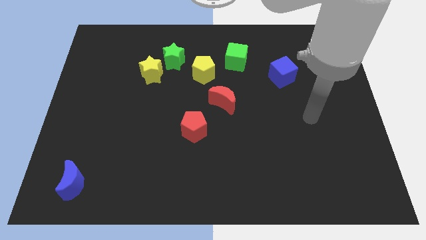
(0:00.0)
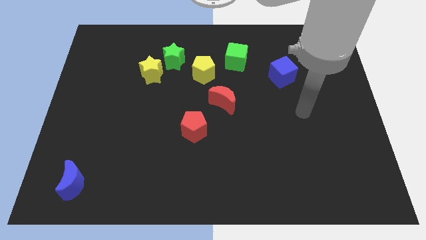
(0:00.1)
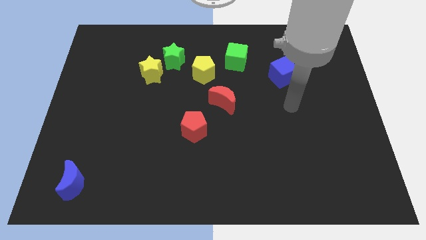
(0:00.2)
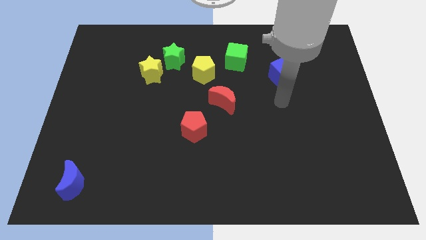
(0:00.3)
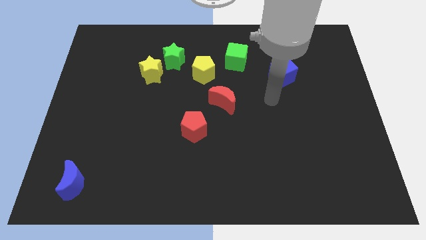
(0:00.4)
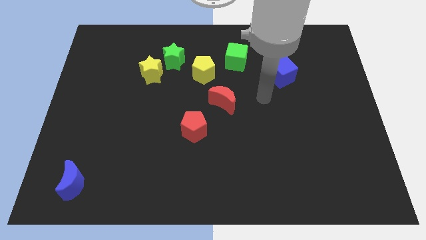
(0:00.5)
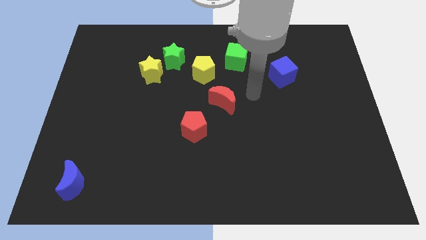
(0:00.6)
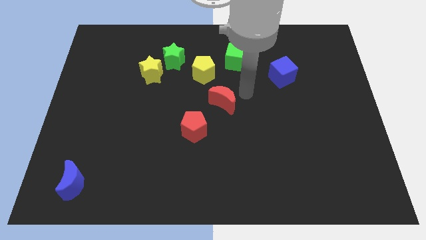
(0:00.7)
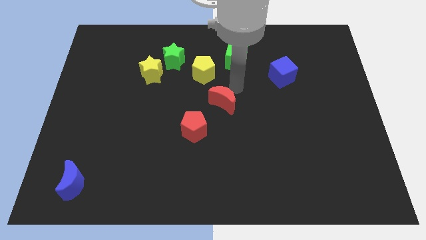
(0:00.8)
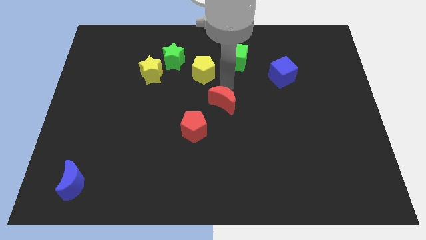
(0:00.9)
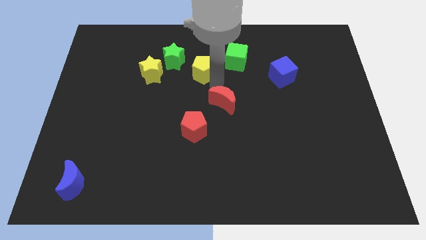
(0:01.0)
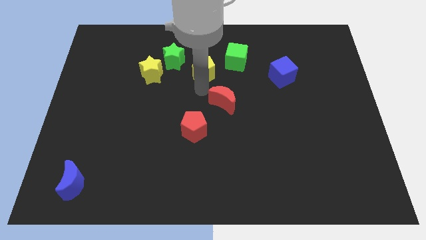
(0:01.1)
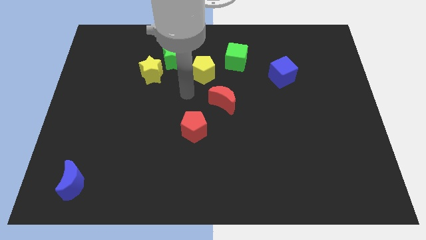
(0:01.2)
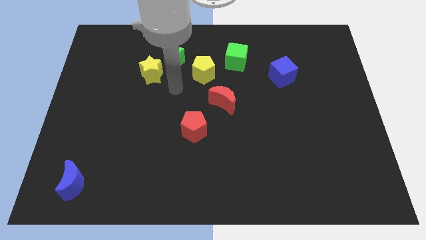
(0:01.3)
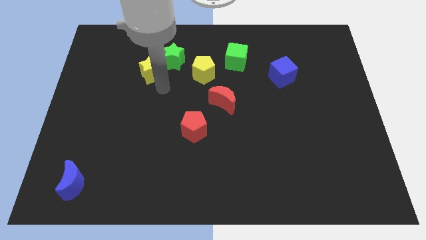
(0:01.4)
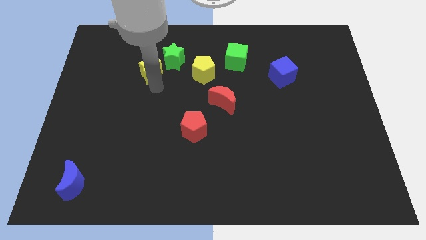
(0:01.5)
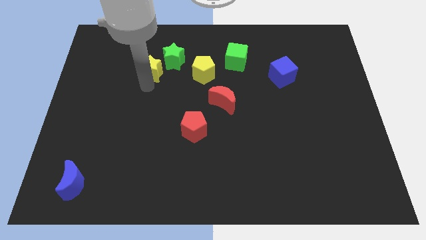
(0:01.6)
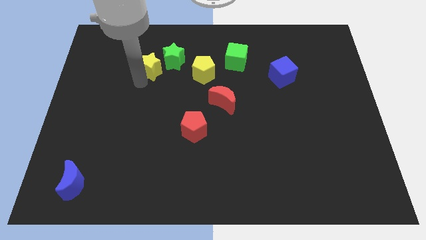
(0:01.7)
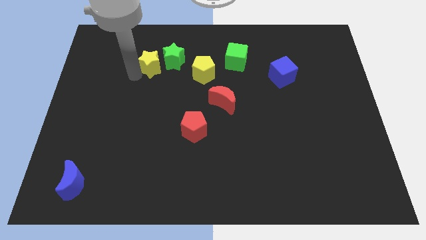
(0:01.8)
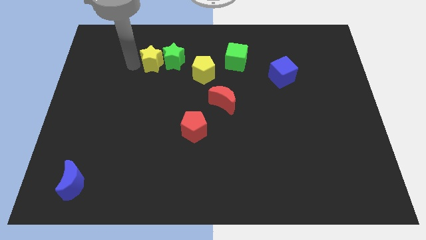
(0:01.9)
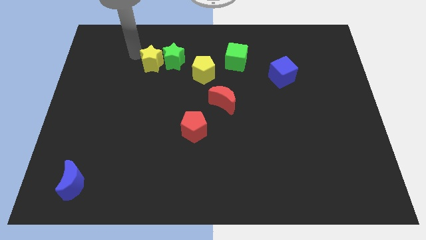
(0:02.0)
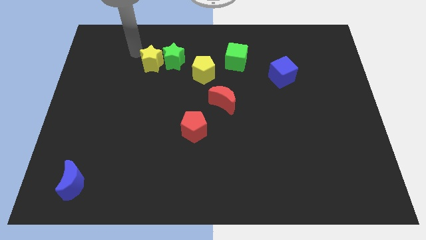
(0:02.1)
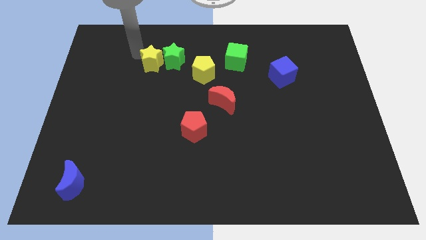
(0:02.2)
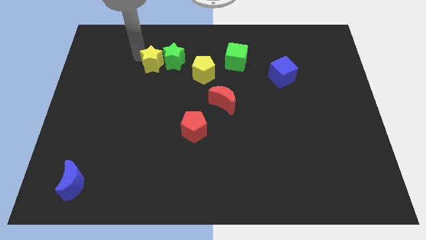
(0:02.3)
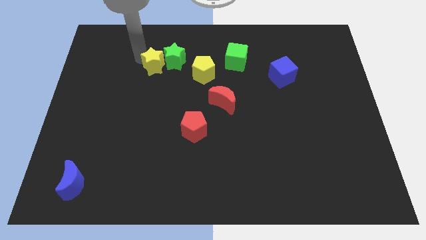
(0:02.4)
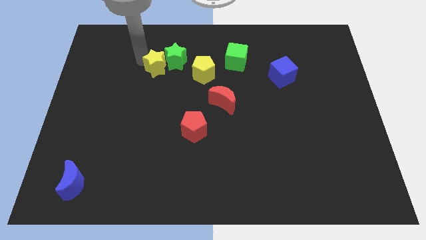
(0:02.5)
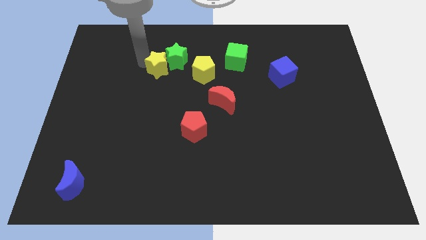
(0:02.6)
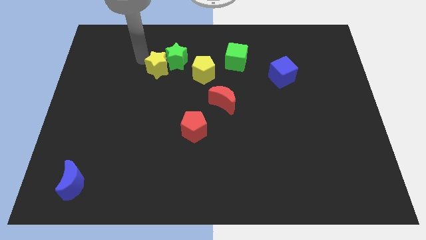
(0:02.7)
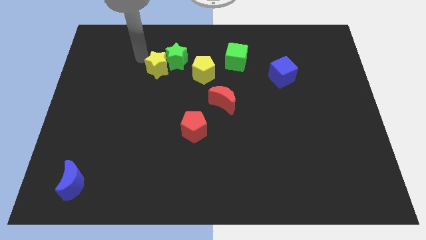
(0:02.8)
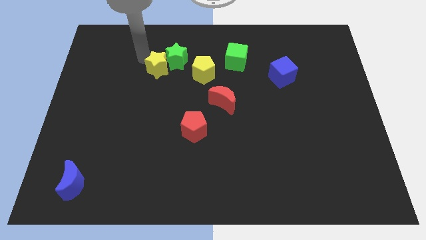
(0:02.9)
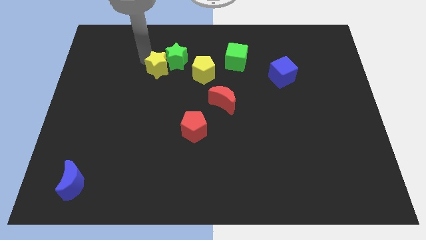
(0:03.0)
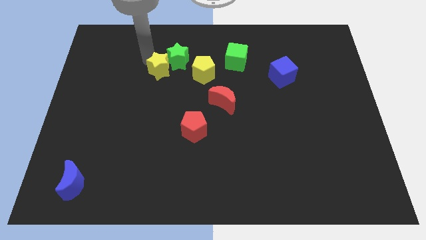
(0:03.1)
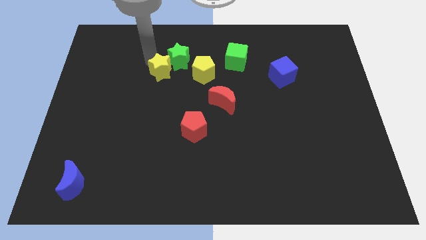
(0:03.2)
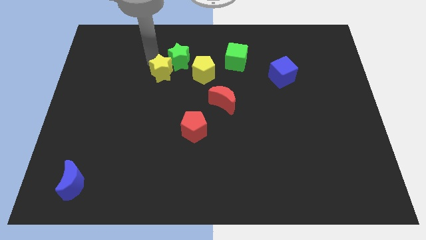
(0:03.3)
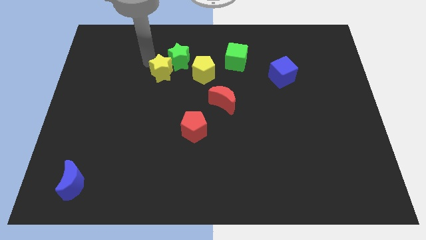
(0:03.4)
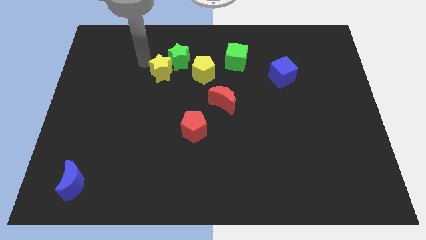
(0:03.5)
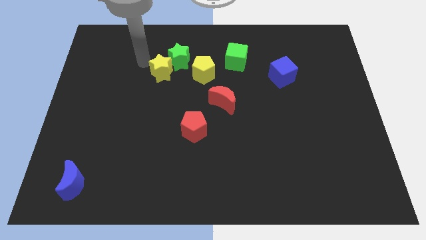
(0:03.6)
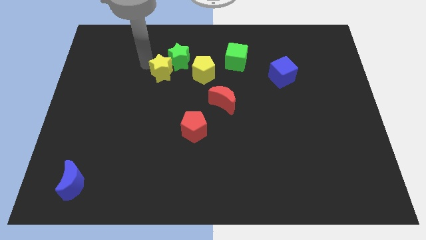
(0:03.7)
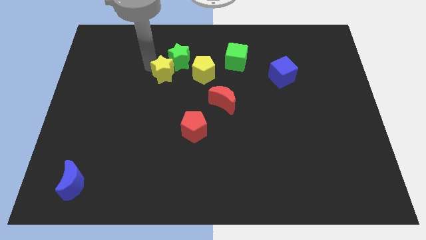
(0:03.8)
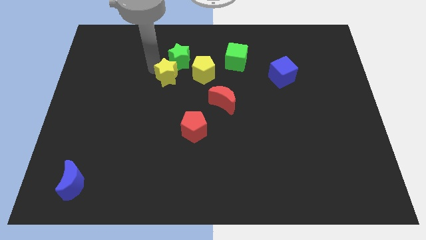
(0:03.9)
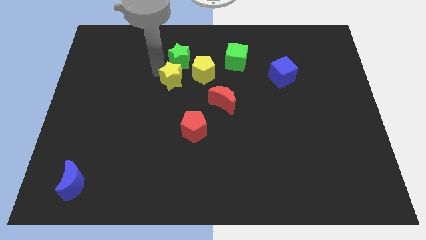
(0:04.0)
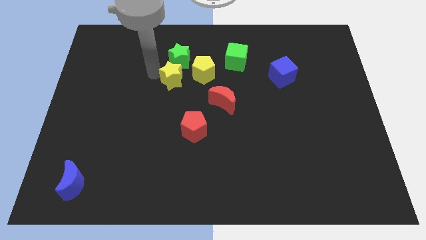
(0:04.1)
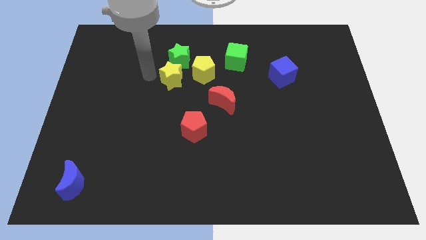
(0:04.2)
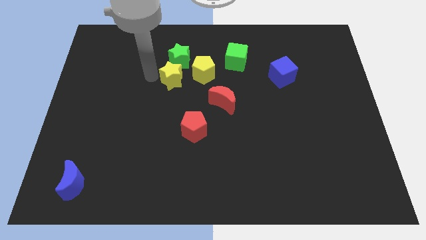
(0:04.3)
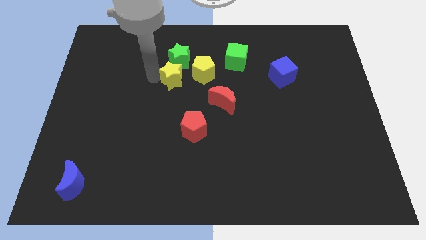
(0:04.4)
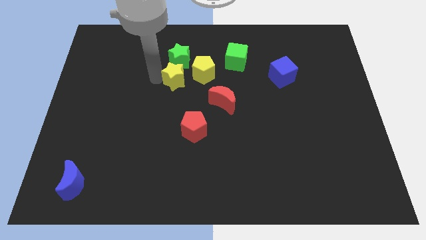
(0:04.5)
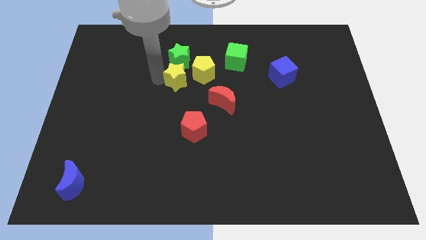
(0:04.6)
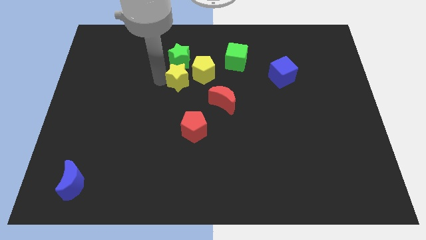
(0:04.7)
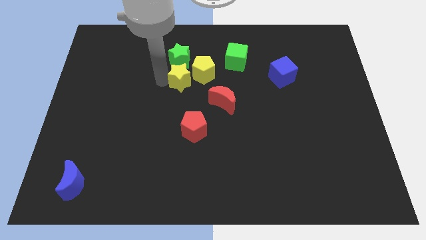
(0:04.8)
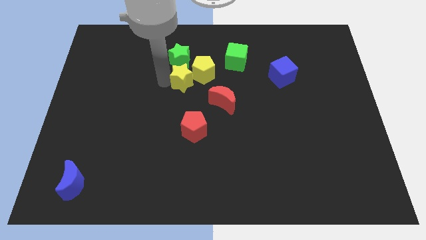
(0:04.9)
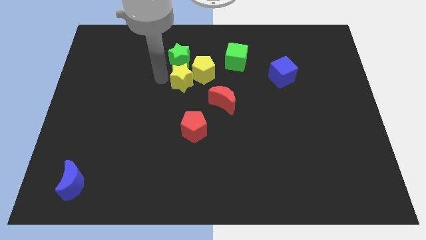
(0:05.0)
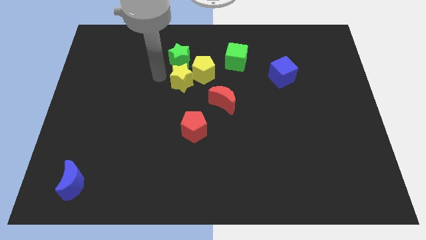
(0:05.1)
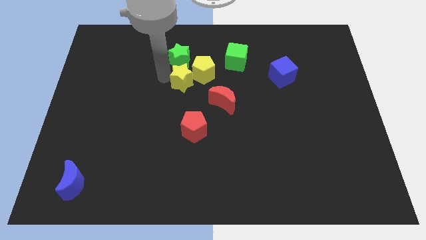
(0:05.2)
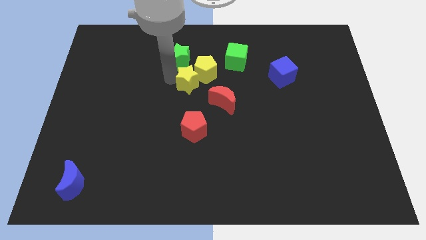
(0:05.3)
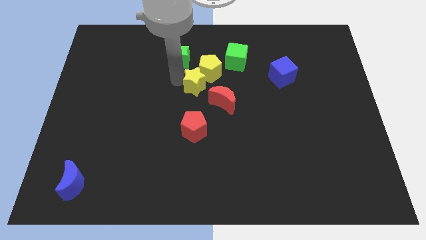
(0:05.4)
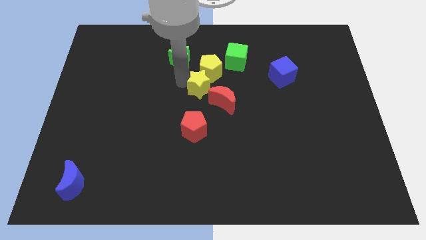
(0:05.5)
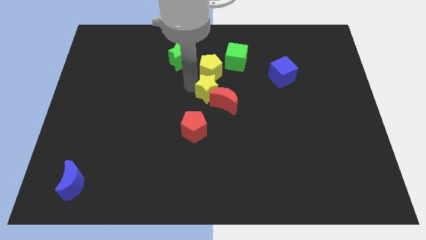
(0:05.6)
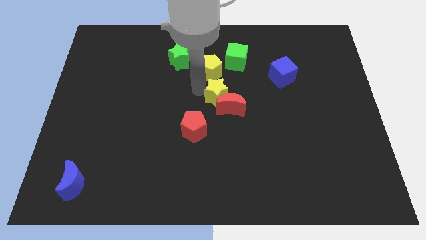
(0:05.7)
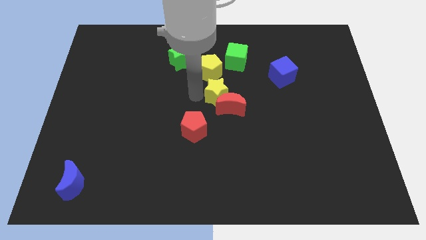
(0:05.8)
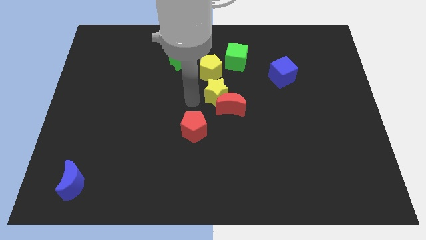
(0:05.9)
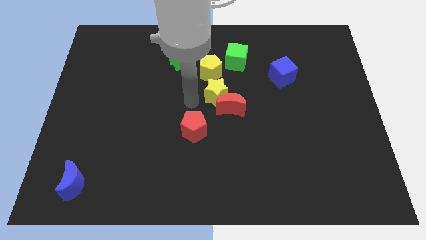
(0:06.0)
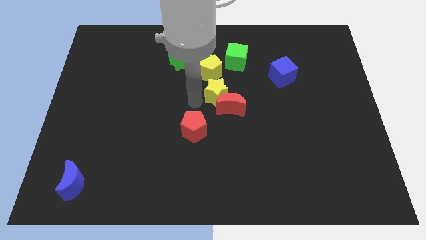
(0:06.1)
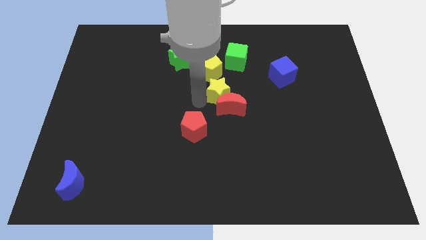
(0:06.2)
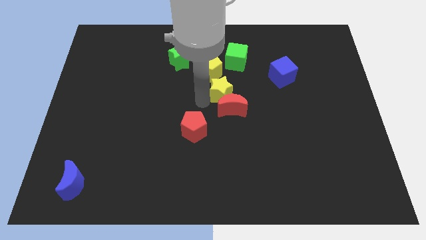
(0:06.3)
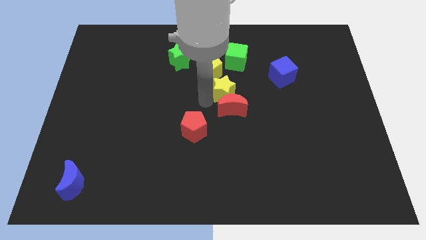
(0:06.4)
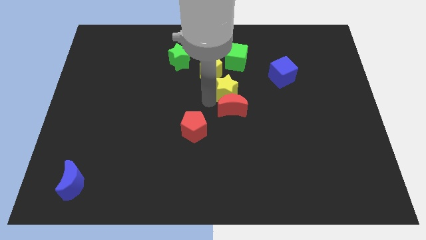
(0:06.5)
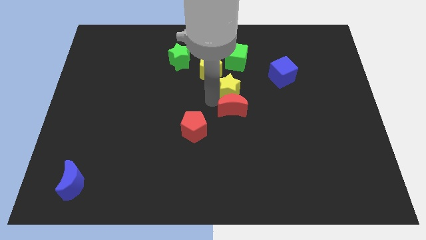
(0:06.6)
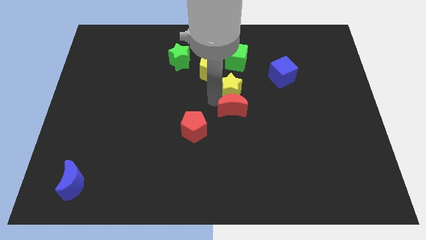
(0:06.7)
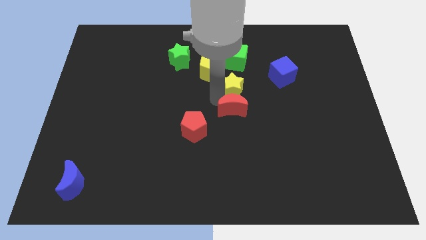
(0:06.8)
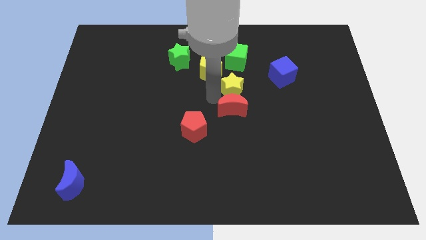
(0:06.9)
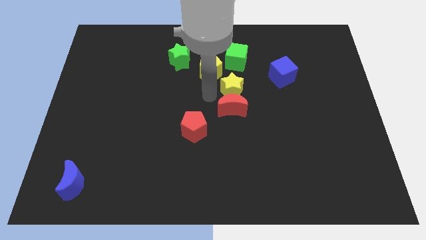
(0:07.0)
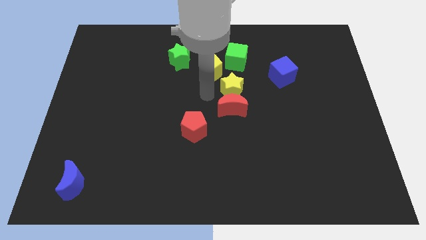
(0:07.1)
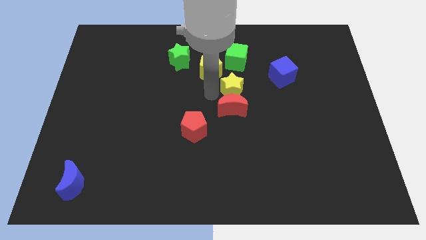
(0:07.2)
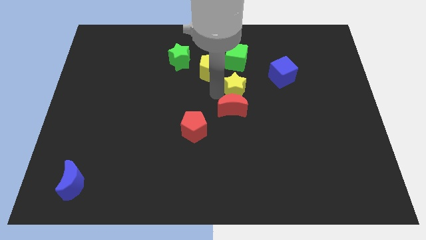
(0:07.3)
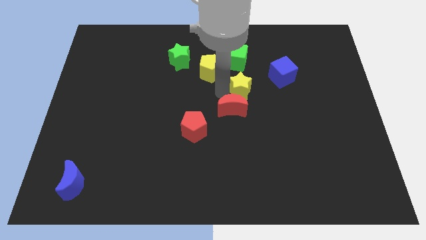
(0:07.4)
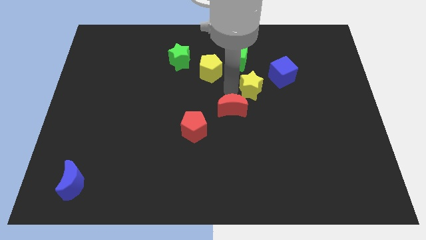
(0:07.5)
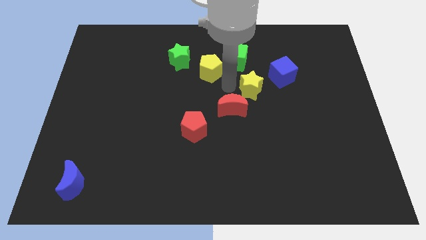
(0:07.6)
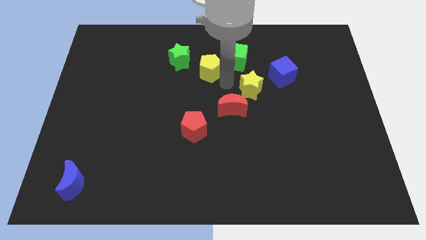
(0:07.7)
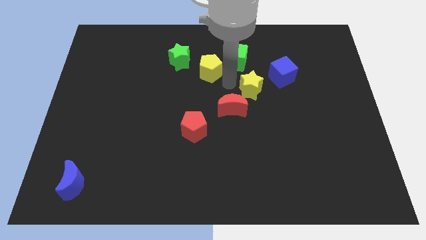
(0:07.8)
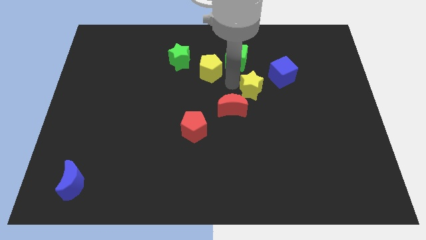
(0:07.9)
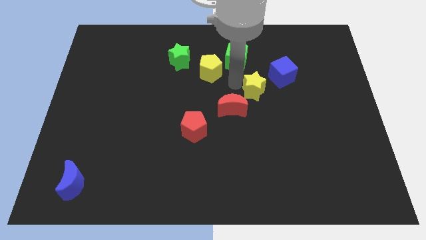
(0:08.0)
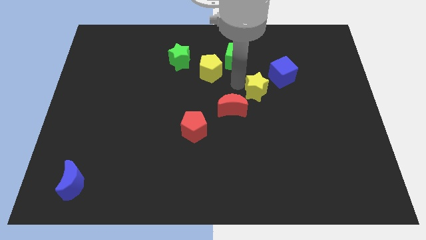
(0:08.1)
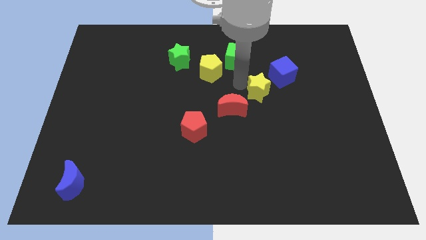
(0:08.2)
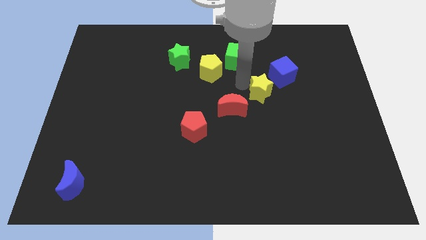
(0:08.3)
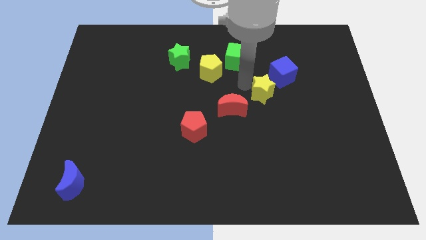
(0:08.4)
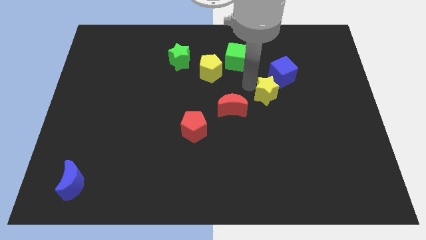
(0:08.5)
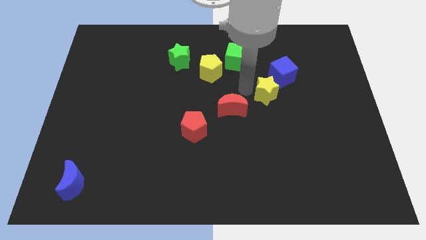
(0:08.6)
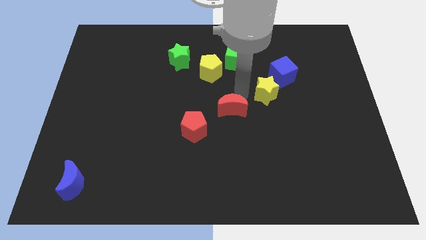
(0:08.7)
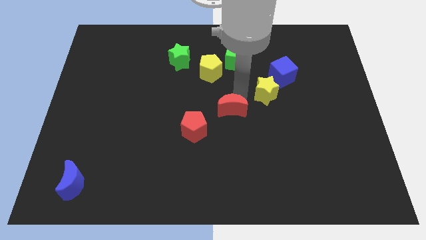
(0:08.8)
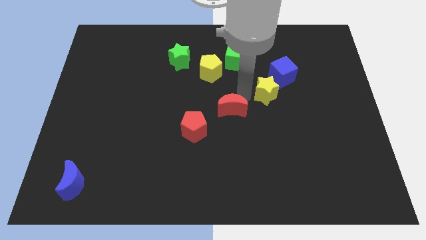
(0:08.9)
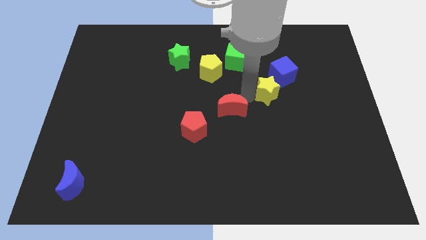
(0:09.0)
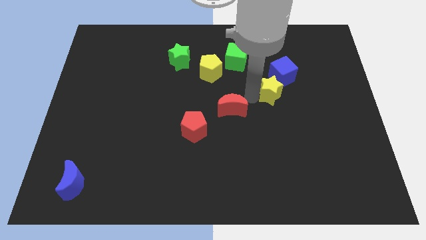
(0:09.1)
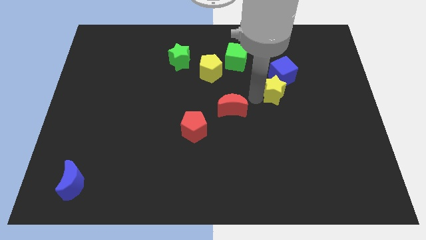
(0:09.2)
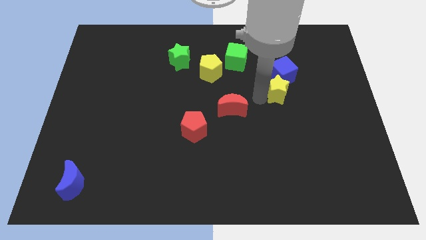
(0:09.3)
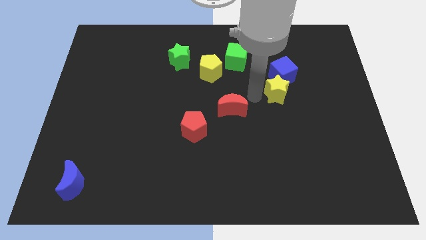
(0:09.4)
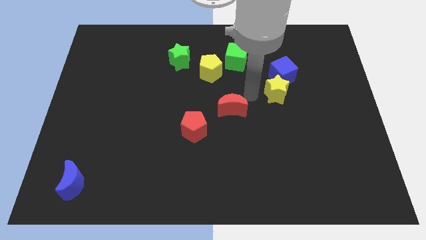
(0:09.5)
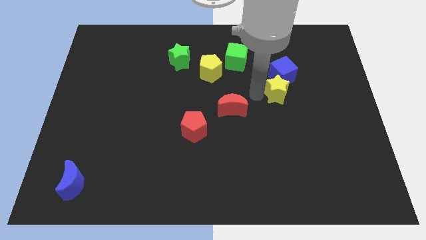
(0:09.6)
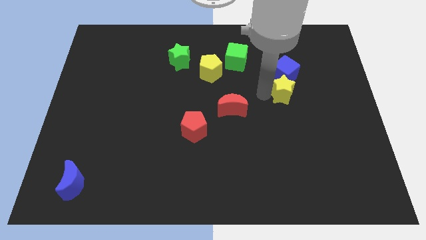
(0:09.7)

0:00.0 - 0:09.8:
push the yellow star diagonally down and to the right of the blue cube
